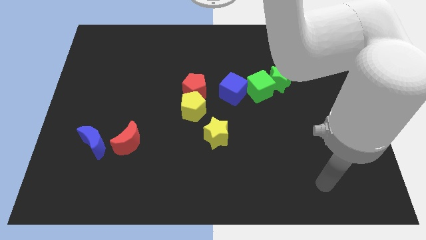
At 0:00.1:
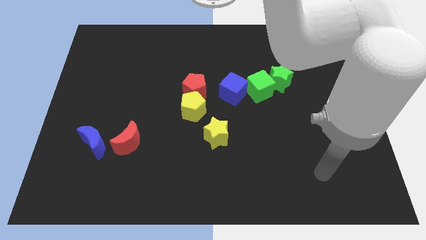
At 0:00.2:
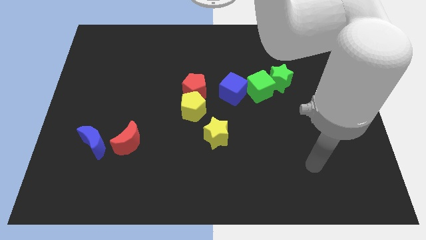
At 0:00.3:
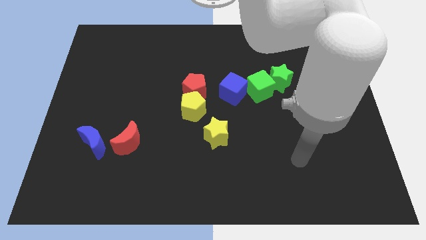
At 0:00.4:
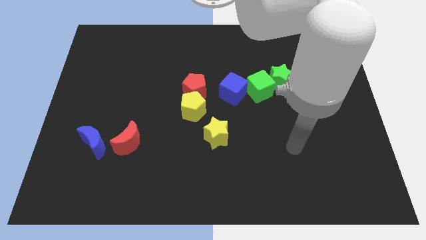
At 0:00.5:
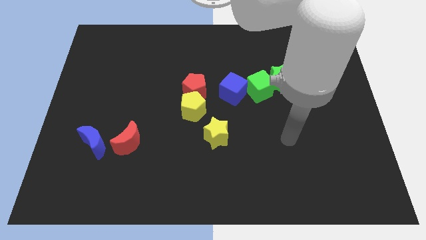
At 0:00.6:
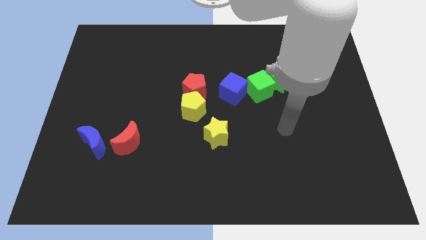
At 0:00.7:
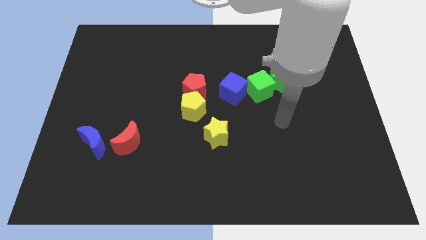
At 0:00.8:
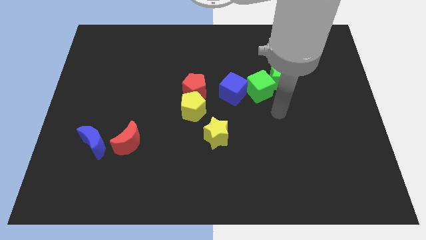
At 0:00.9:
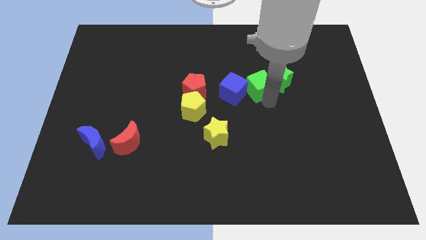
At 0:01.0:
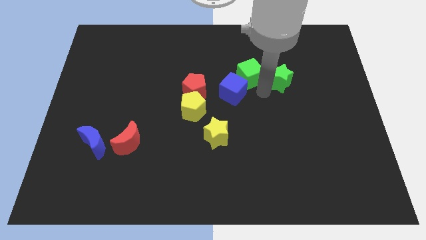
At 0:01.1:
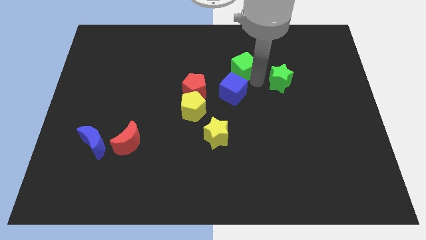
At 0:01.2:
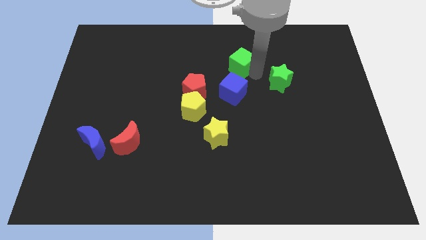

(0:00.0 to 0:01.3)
move the green star away from the green cube

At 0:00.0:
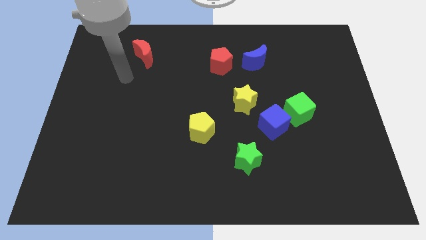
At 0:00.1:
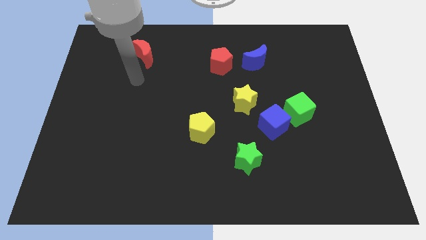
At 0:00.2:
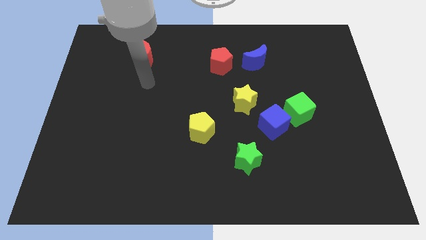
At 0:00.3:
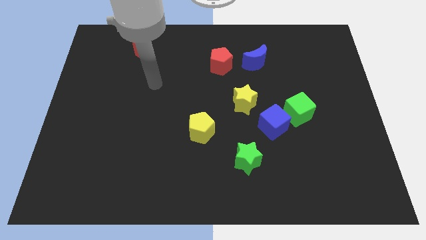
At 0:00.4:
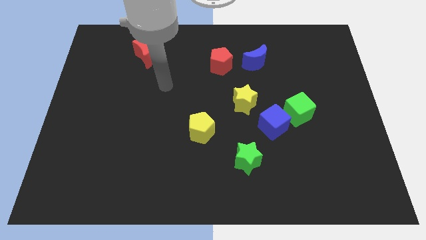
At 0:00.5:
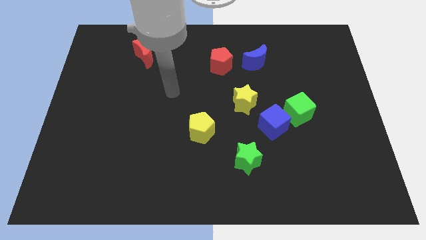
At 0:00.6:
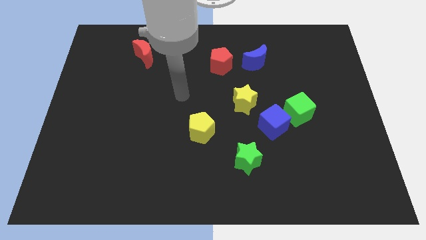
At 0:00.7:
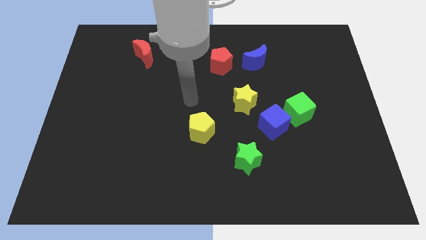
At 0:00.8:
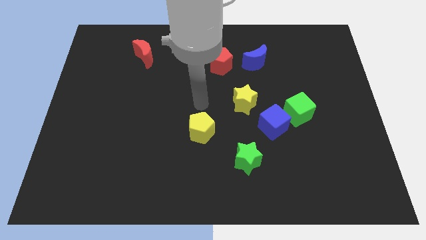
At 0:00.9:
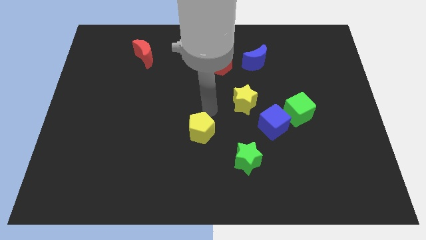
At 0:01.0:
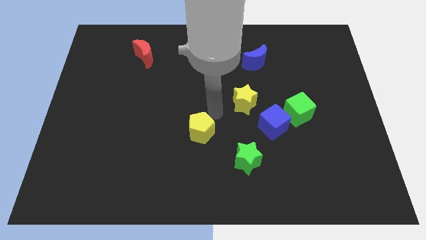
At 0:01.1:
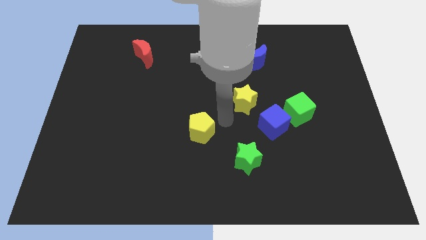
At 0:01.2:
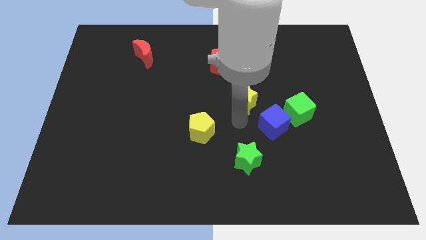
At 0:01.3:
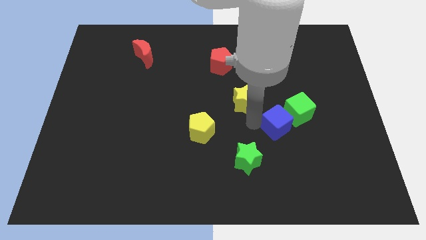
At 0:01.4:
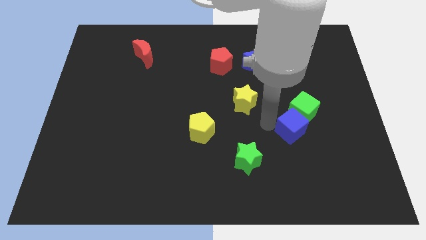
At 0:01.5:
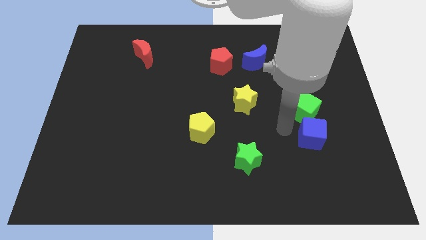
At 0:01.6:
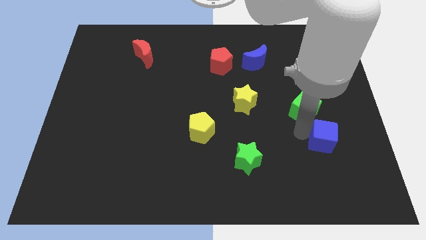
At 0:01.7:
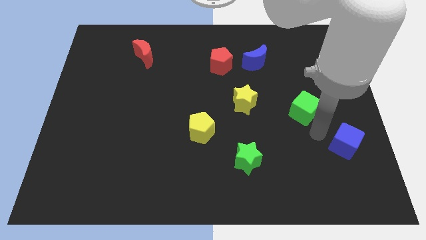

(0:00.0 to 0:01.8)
separate the green cube from the blue cube

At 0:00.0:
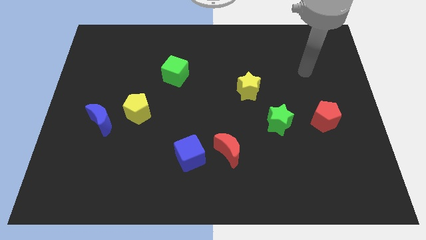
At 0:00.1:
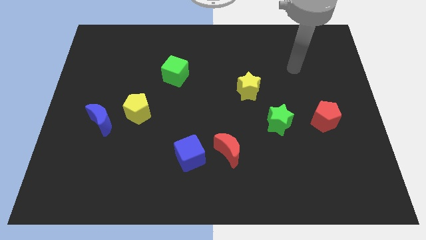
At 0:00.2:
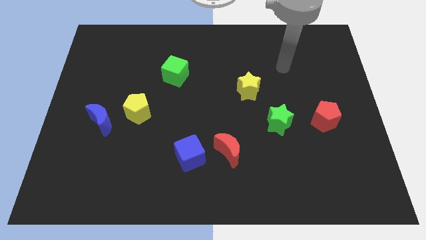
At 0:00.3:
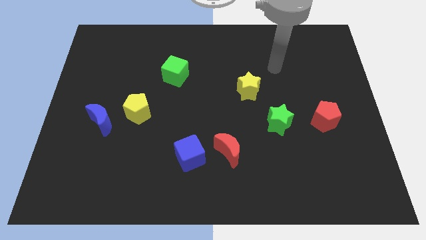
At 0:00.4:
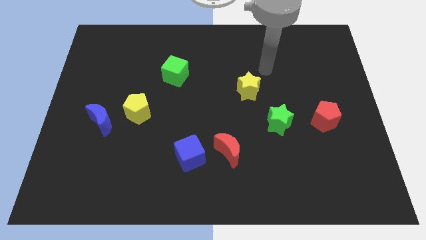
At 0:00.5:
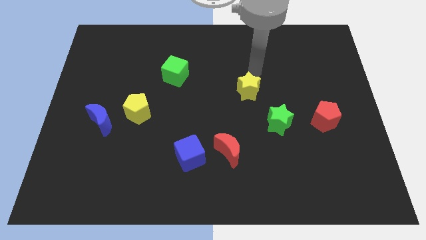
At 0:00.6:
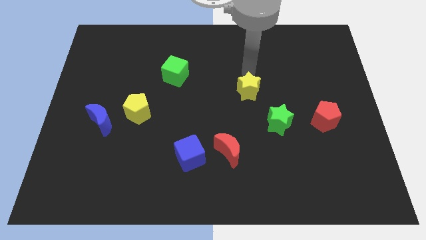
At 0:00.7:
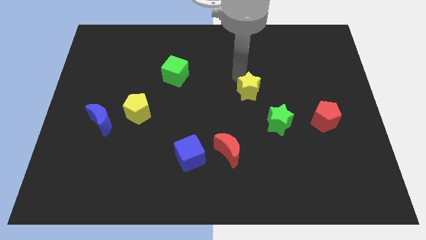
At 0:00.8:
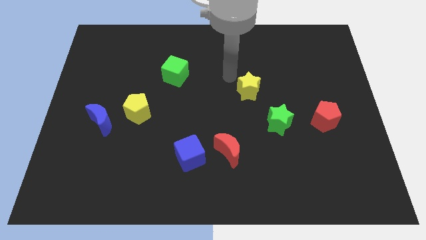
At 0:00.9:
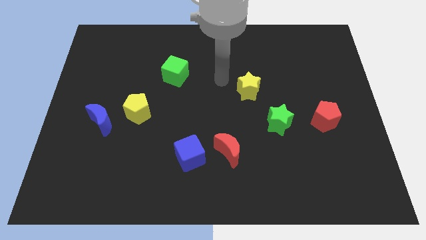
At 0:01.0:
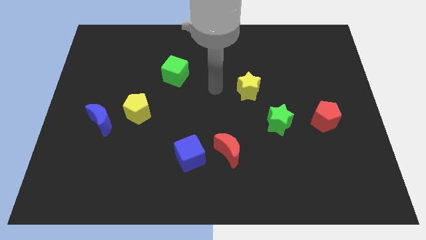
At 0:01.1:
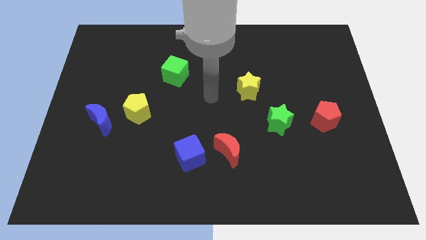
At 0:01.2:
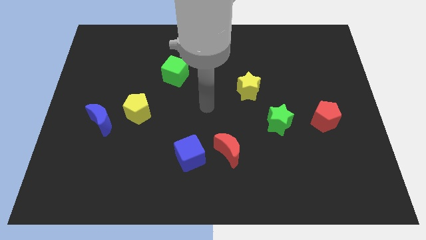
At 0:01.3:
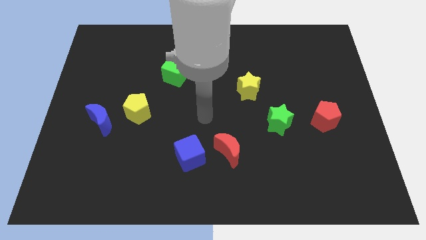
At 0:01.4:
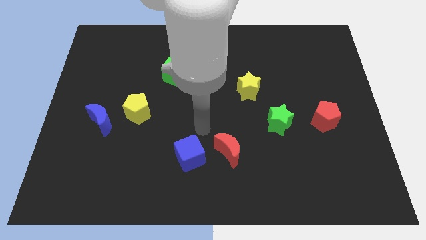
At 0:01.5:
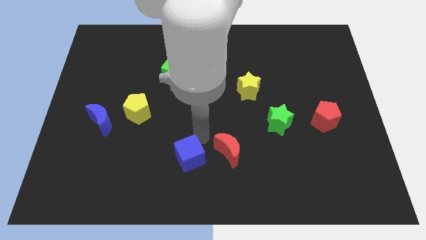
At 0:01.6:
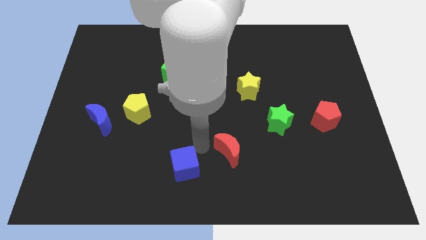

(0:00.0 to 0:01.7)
move the red moon away from the blue cube

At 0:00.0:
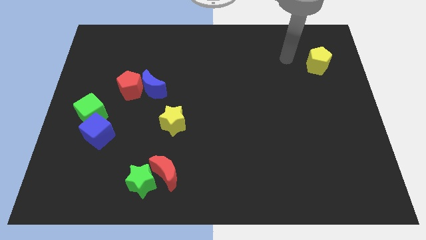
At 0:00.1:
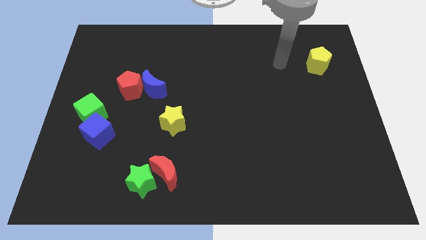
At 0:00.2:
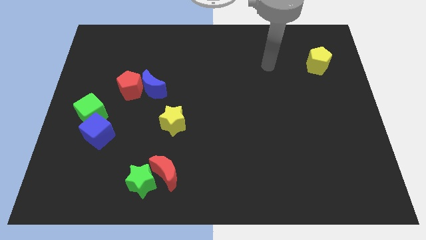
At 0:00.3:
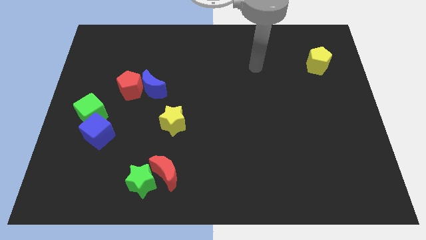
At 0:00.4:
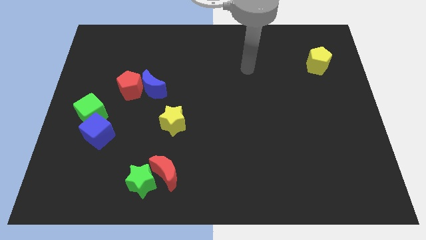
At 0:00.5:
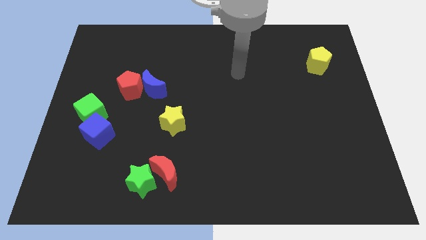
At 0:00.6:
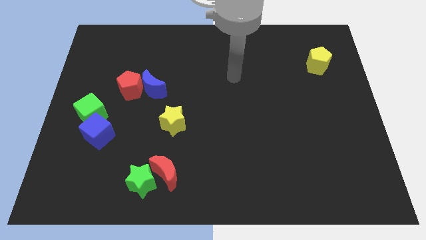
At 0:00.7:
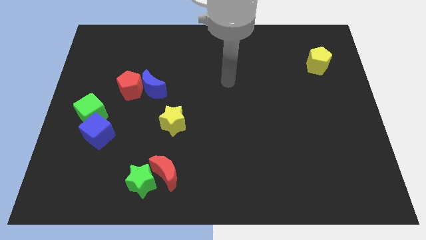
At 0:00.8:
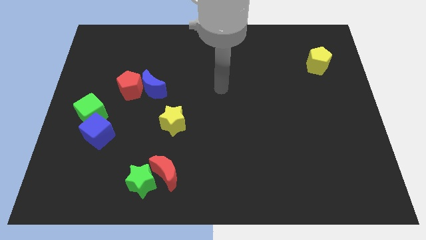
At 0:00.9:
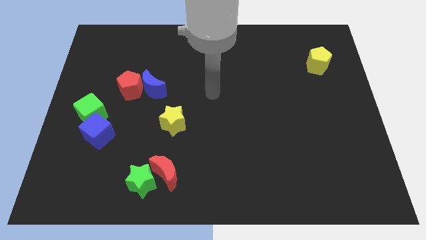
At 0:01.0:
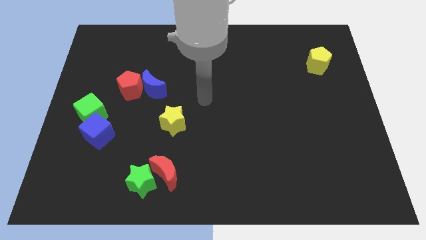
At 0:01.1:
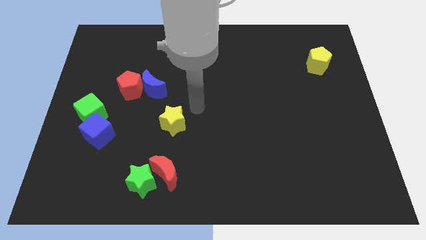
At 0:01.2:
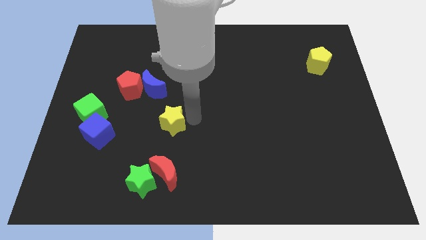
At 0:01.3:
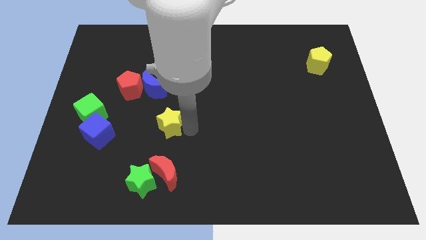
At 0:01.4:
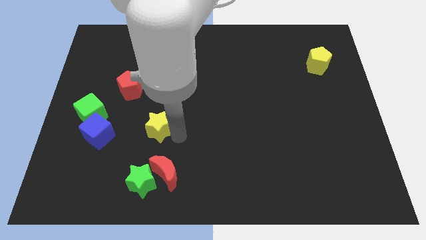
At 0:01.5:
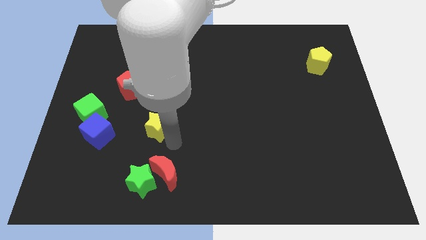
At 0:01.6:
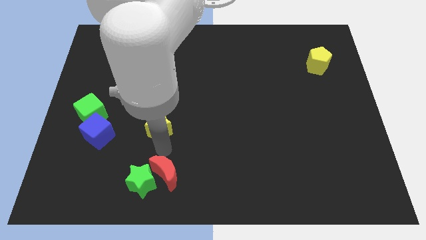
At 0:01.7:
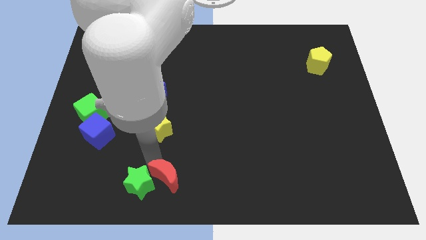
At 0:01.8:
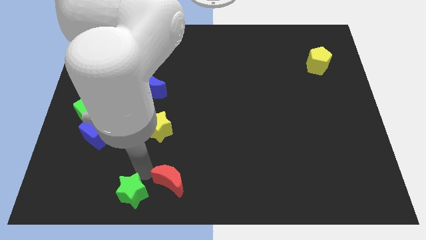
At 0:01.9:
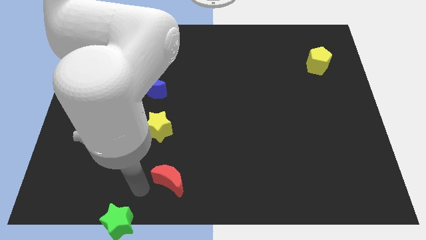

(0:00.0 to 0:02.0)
pull the red moon apart from the green star

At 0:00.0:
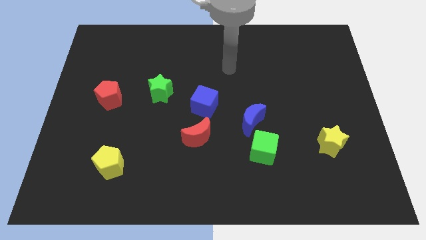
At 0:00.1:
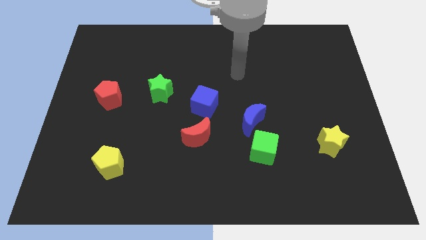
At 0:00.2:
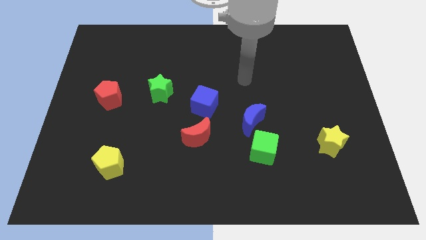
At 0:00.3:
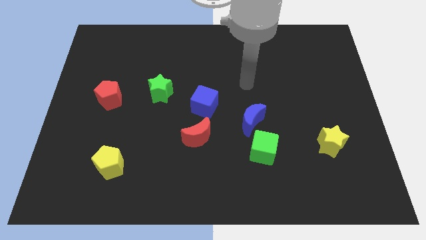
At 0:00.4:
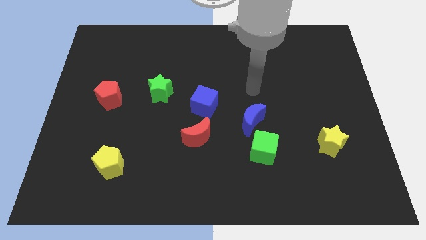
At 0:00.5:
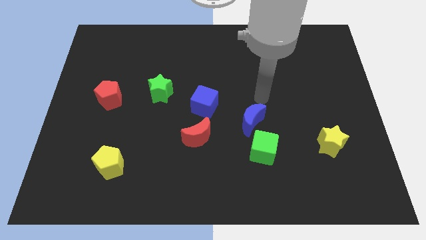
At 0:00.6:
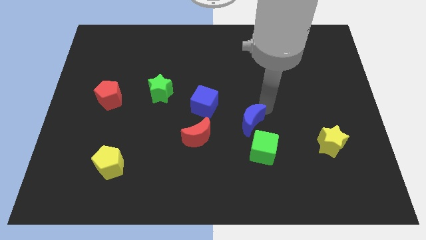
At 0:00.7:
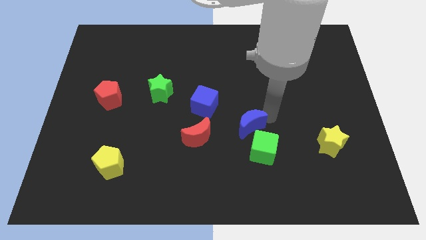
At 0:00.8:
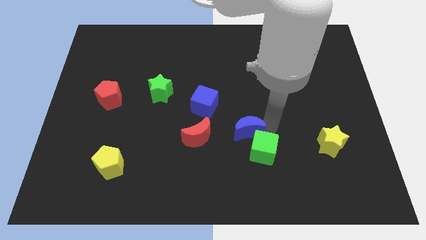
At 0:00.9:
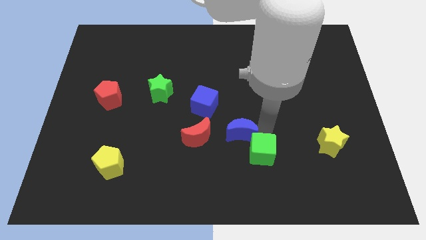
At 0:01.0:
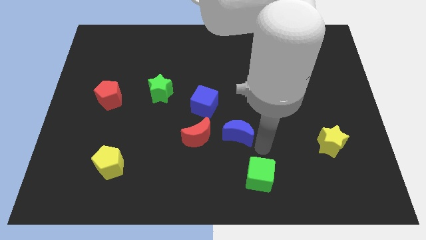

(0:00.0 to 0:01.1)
pull the blue moon apart from the green cube

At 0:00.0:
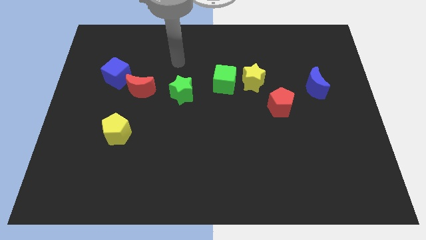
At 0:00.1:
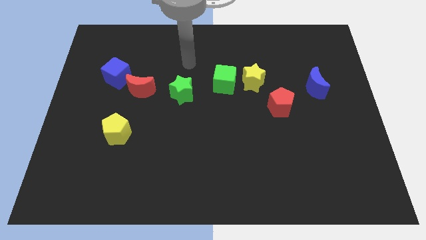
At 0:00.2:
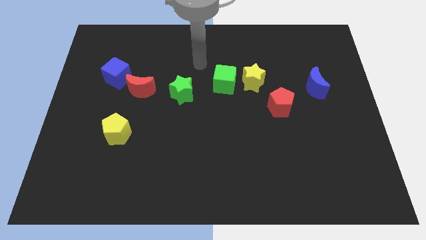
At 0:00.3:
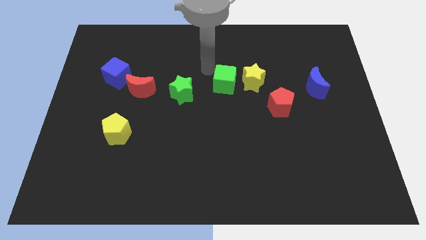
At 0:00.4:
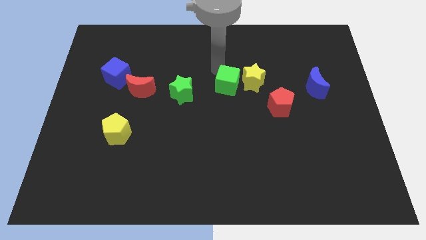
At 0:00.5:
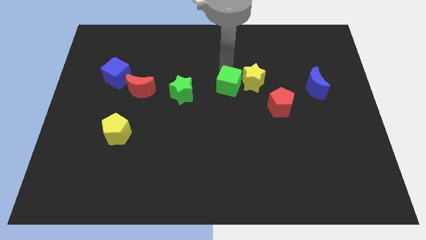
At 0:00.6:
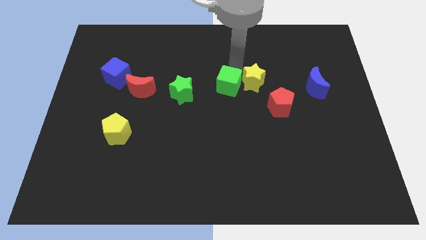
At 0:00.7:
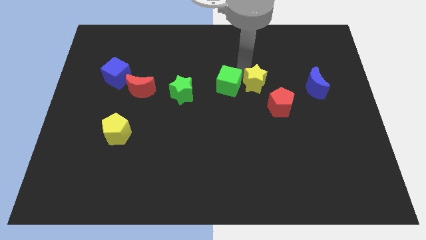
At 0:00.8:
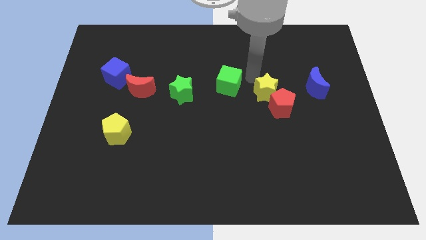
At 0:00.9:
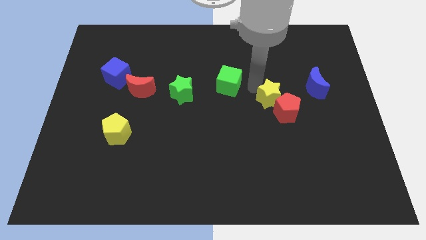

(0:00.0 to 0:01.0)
separate the green cube from the yellow star

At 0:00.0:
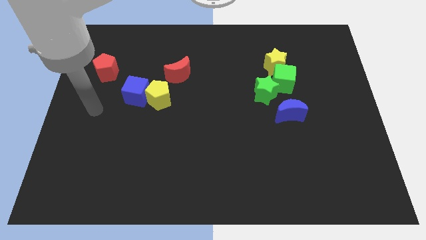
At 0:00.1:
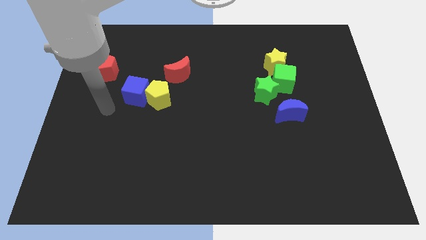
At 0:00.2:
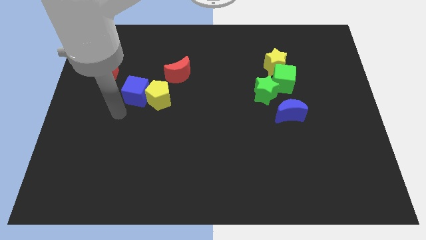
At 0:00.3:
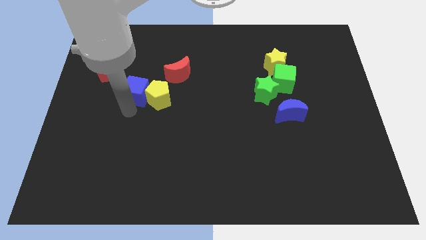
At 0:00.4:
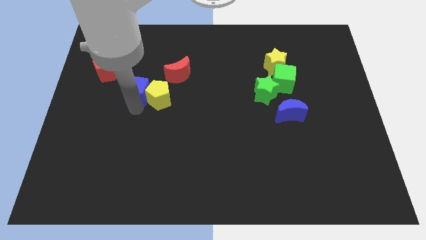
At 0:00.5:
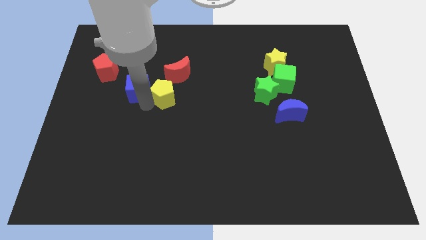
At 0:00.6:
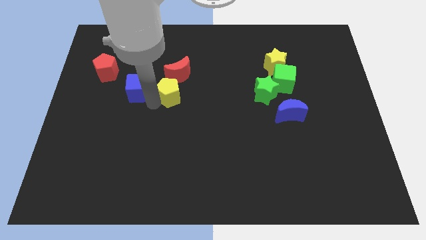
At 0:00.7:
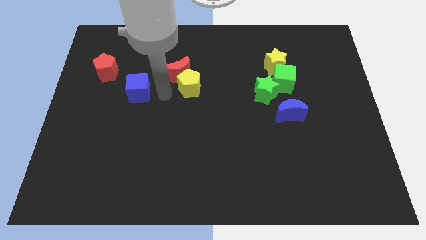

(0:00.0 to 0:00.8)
move the blue cube away from the yellow pentagon
